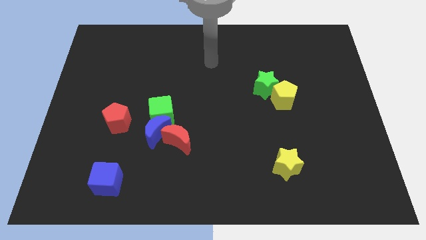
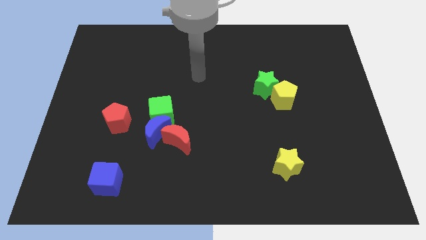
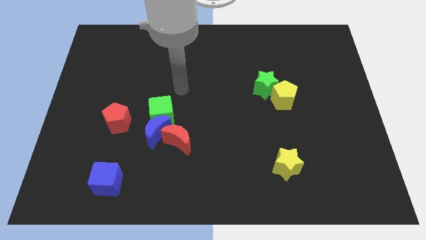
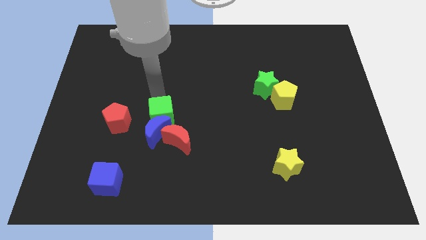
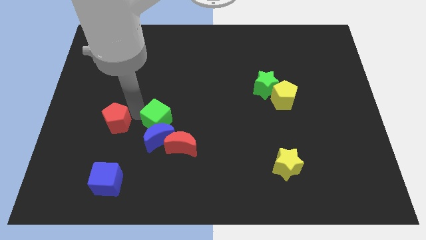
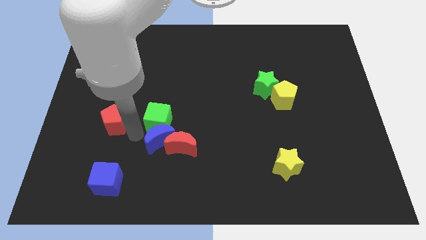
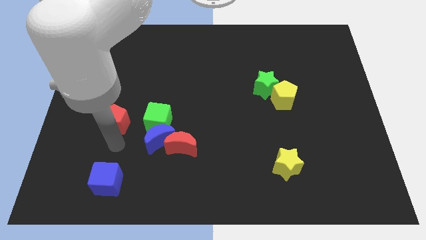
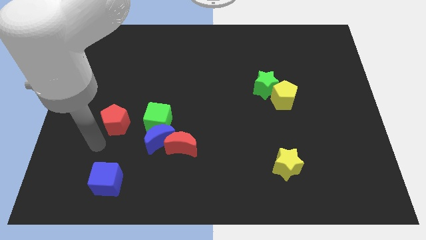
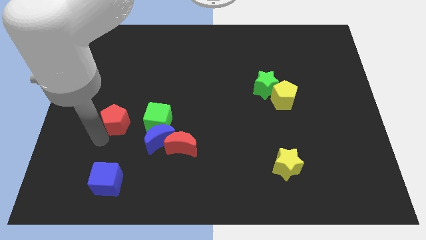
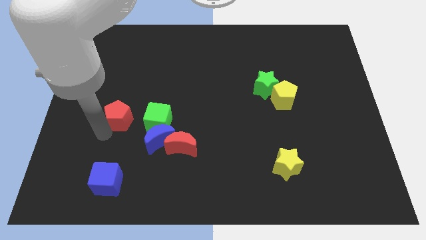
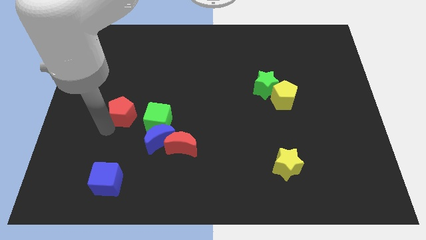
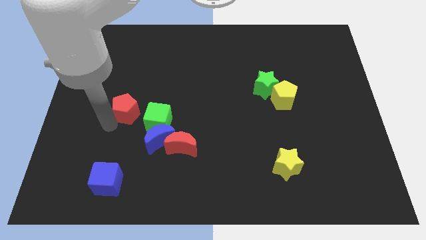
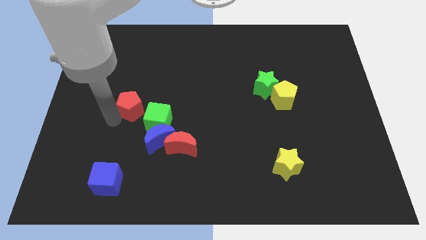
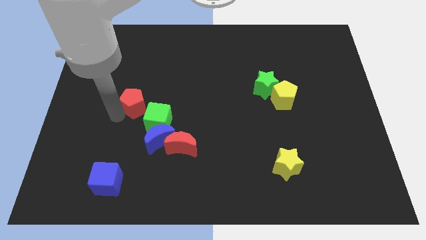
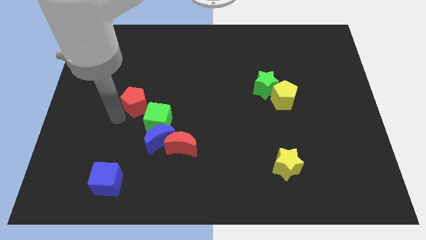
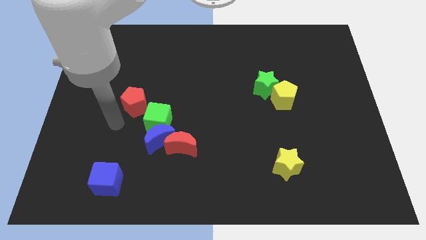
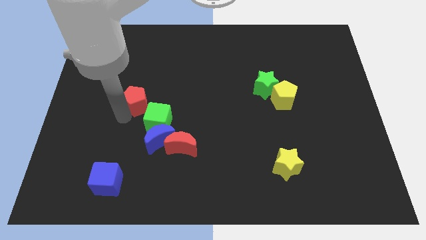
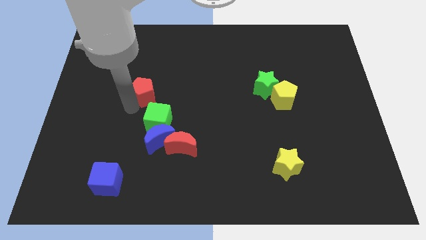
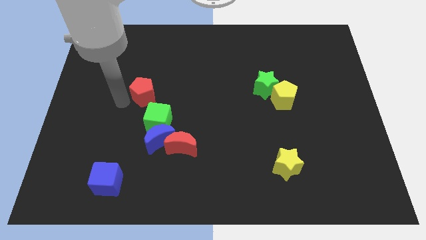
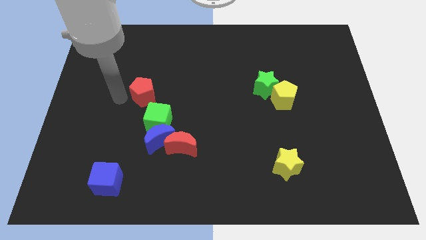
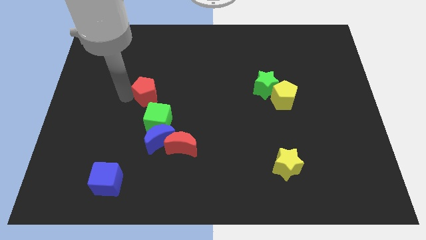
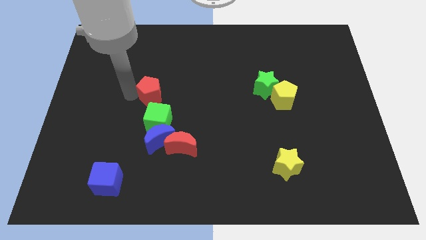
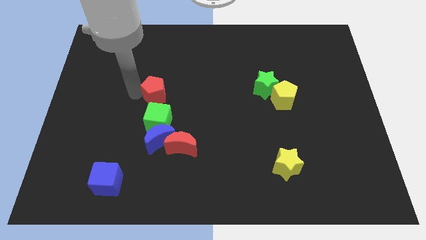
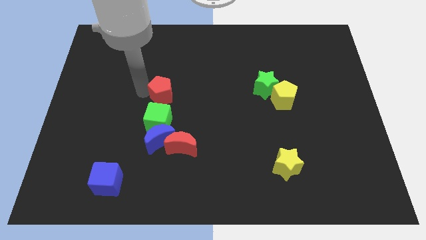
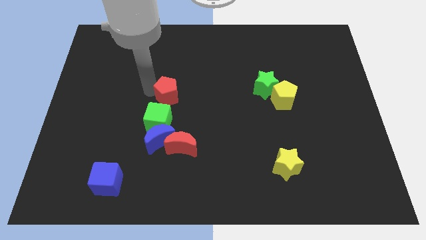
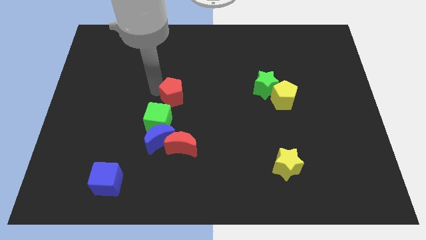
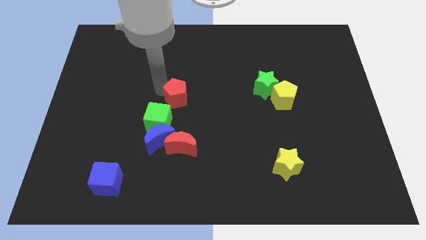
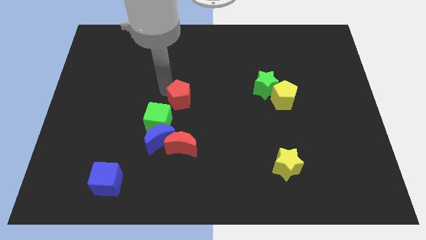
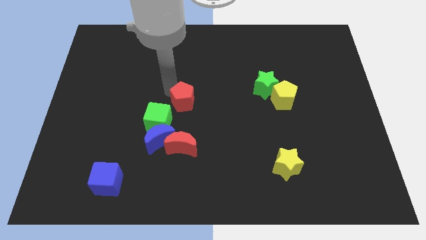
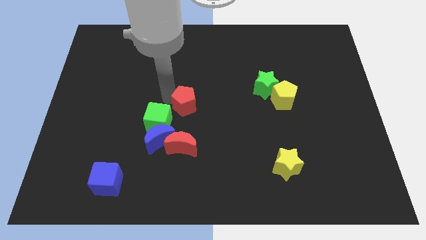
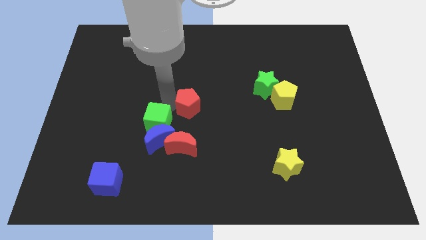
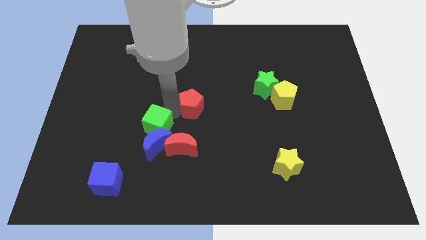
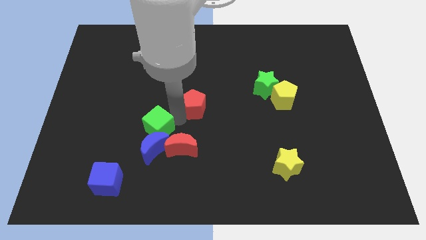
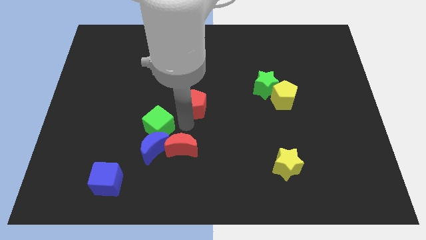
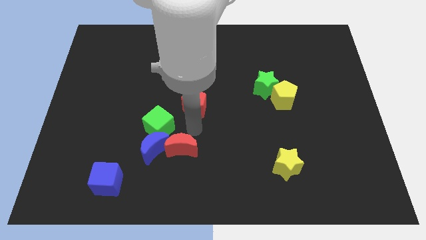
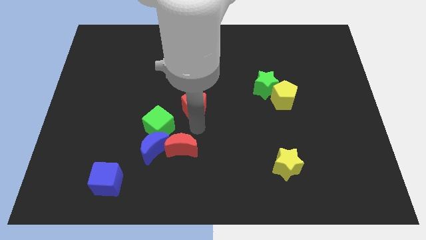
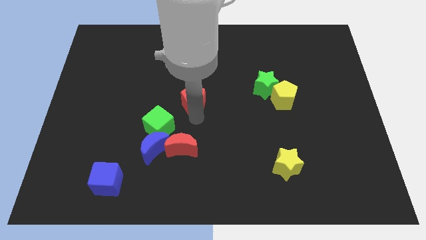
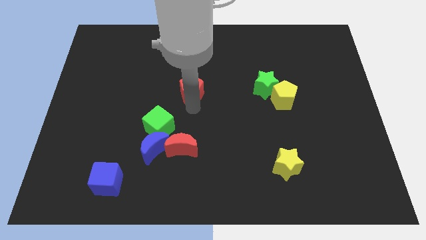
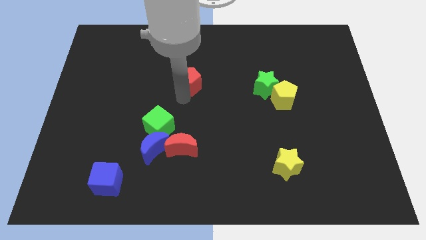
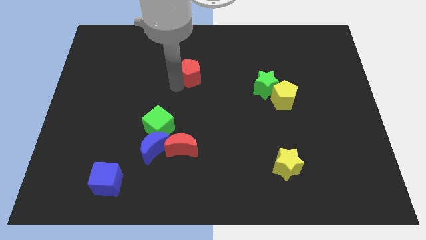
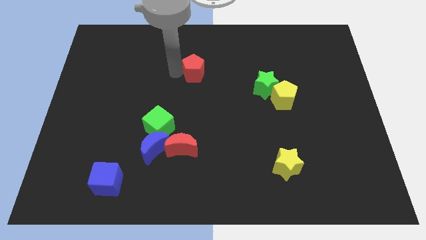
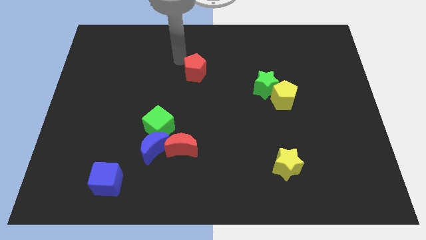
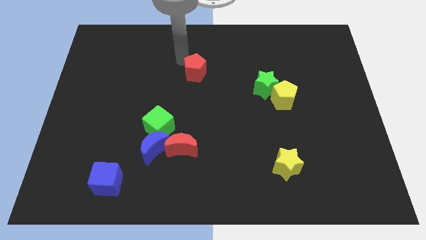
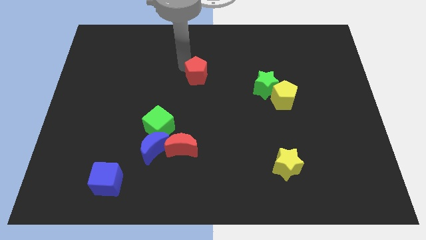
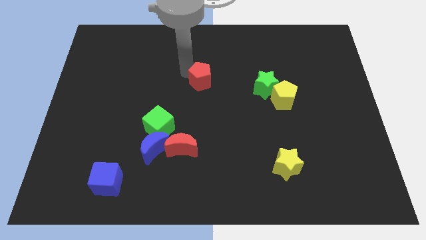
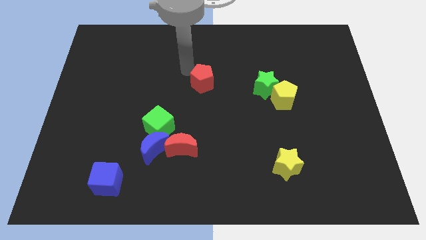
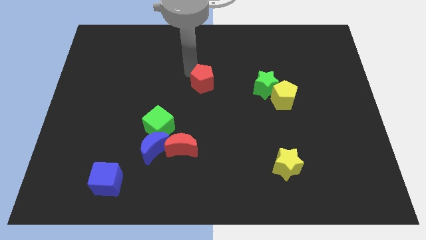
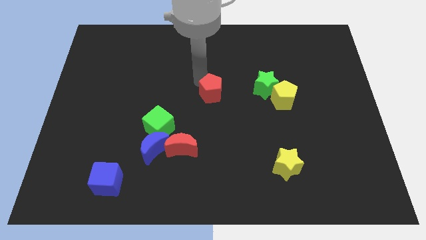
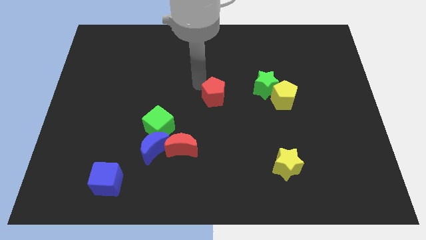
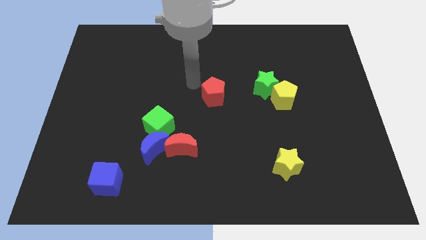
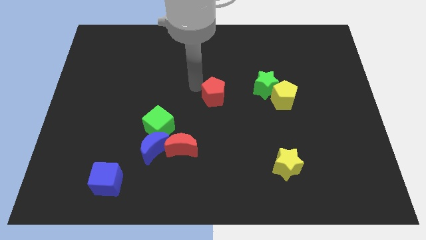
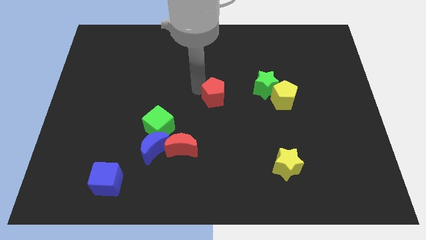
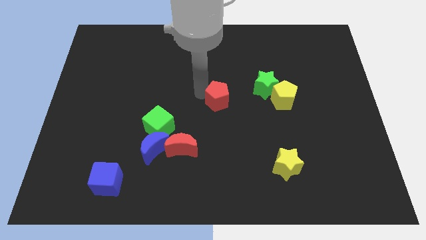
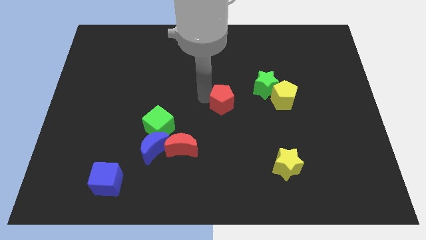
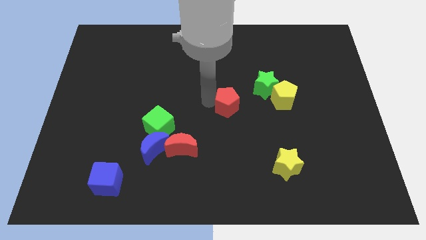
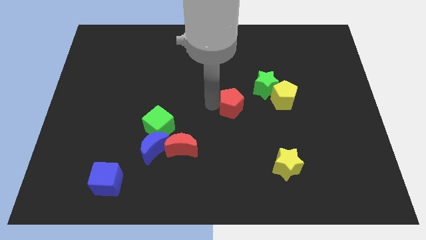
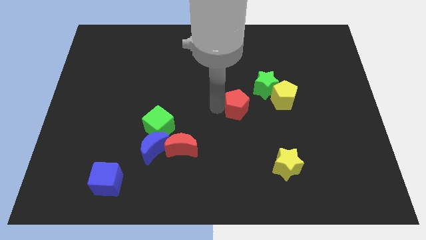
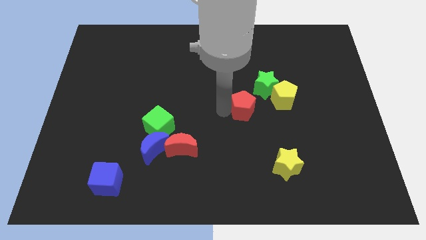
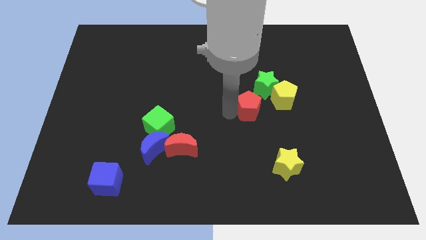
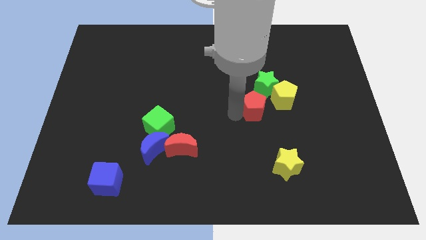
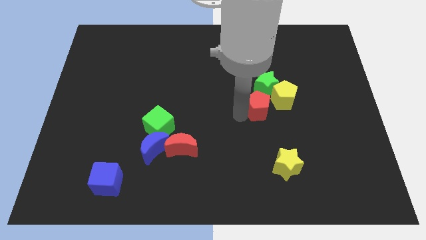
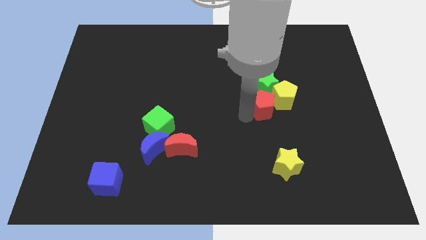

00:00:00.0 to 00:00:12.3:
move the red pentagon next to the yellow pentagon

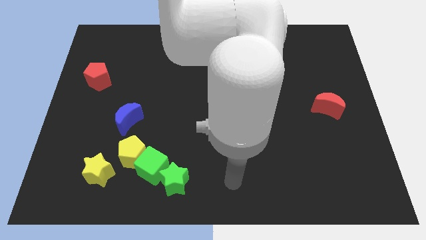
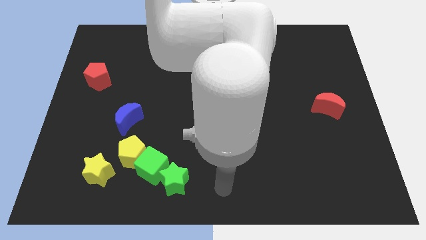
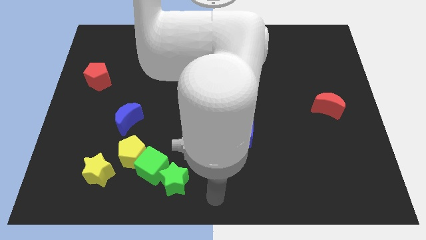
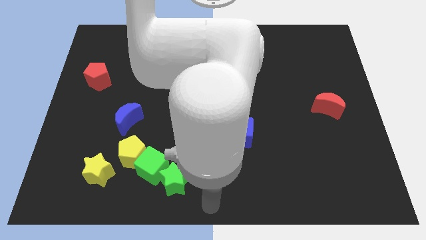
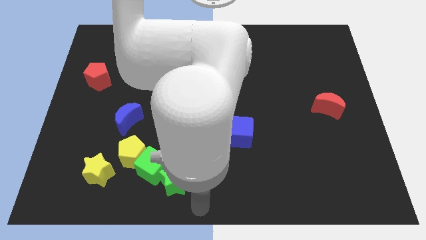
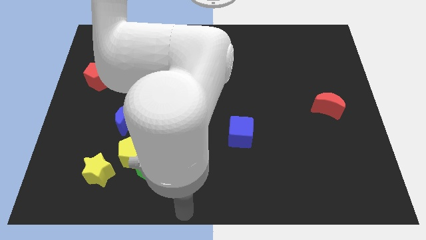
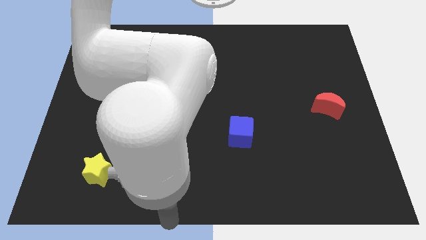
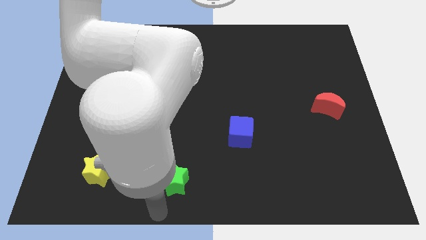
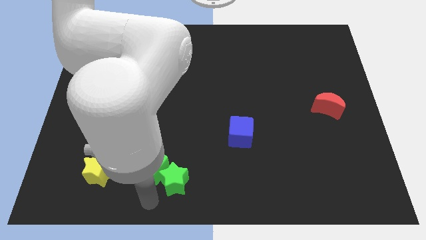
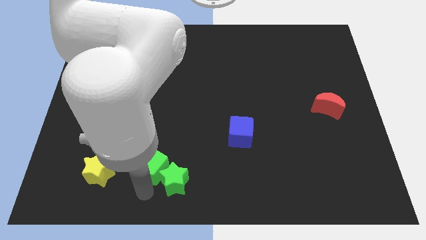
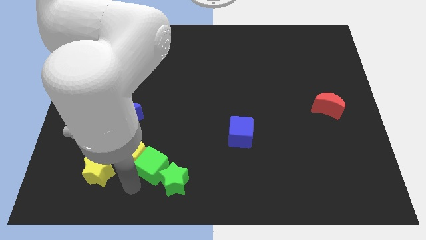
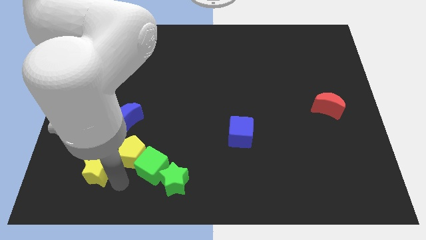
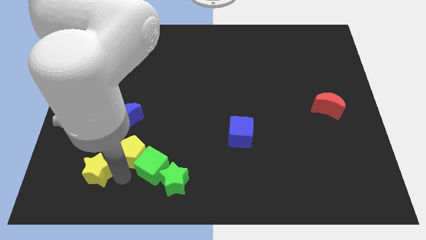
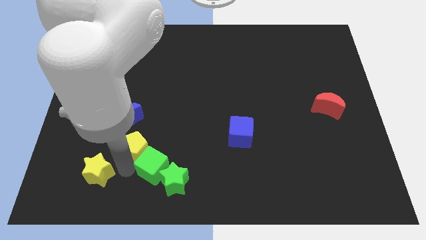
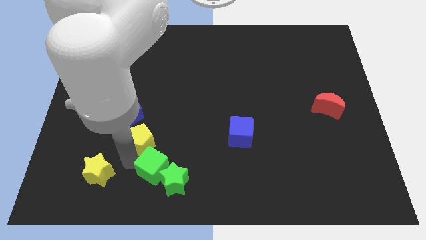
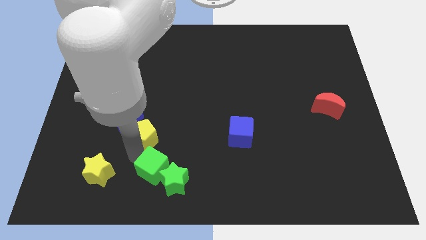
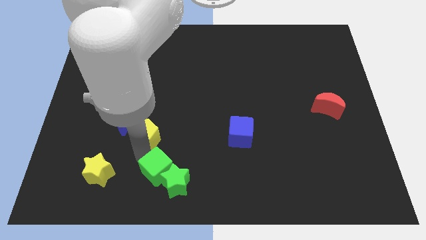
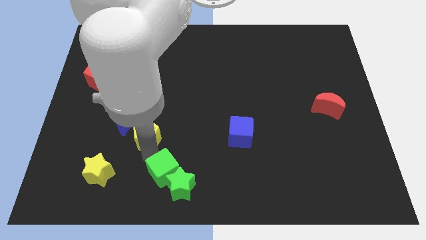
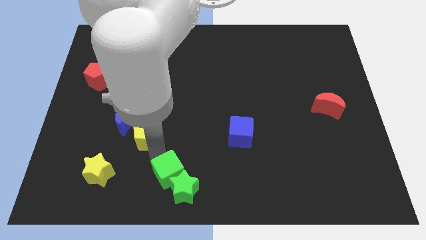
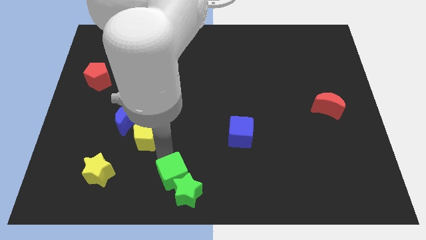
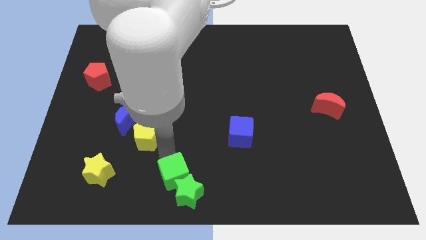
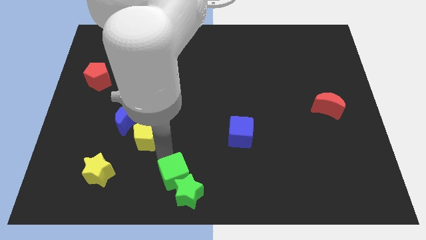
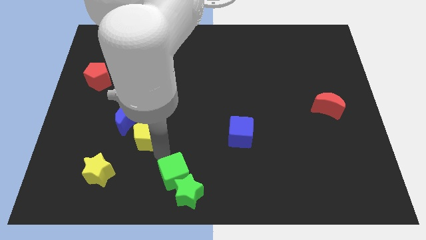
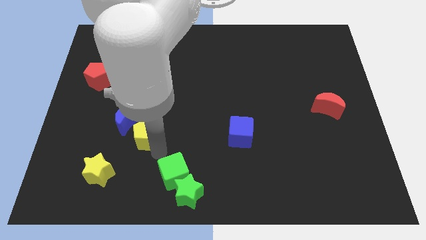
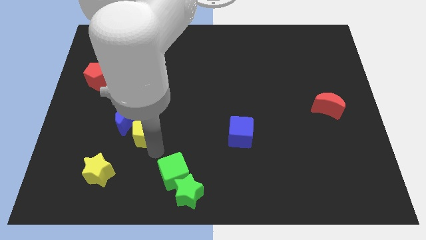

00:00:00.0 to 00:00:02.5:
push the yellow pentagon towards the blue moon
